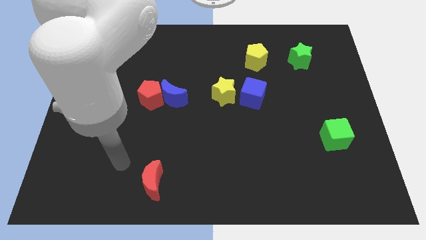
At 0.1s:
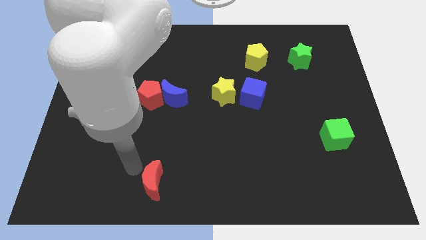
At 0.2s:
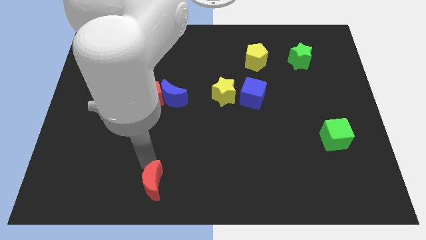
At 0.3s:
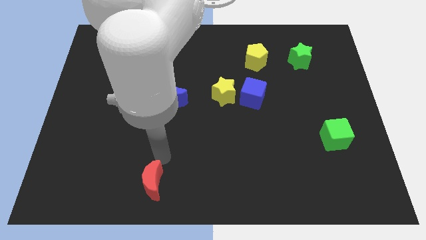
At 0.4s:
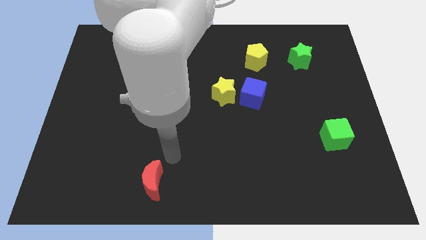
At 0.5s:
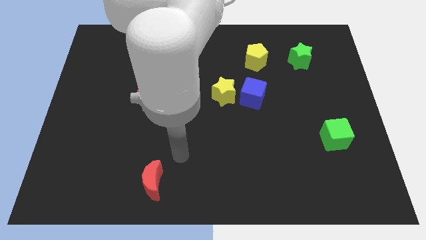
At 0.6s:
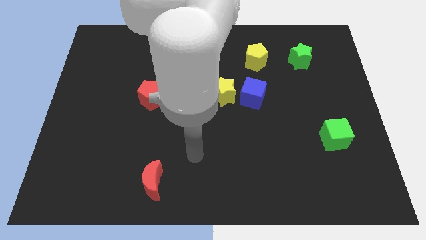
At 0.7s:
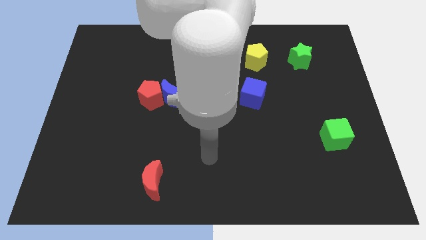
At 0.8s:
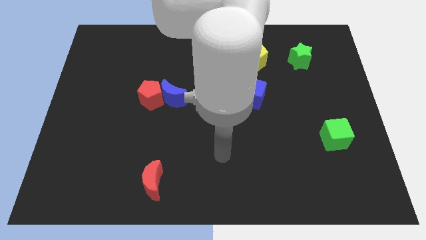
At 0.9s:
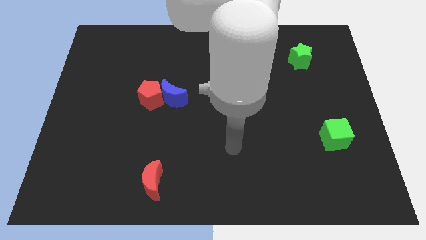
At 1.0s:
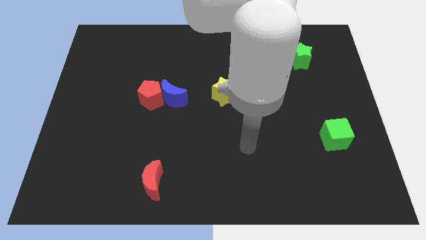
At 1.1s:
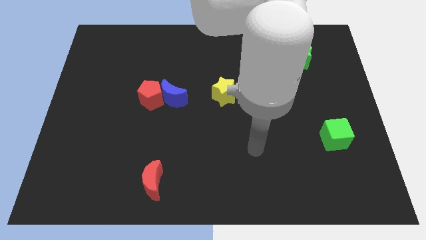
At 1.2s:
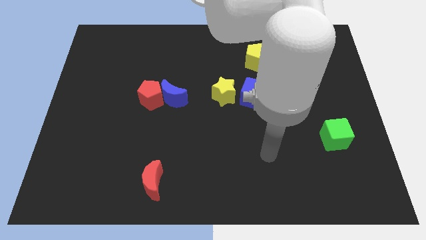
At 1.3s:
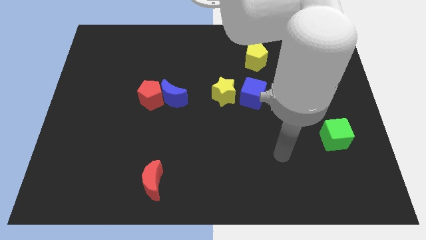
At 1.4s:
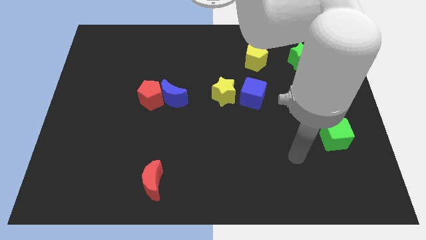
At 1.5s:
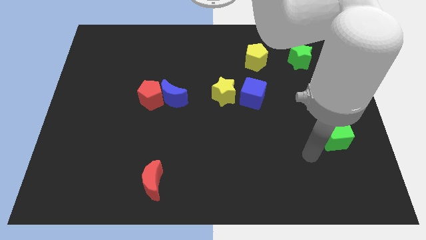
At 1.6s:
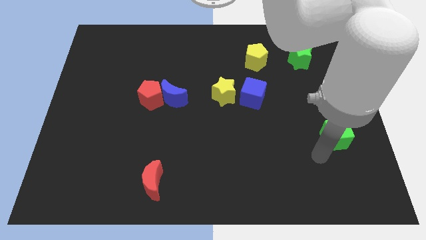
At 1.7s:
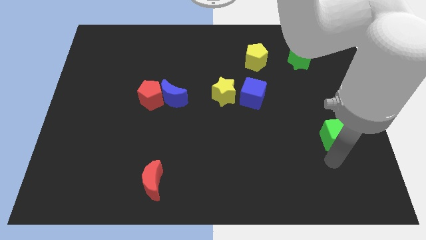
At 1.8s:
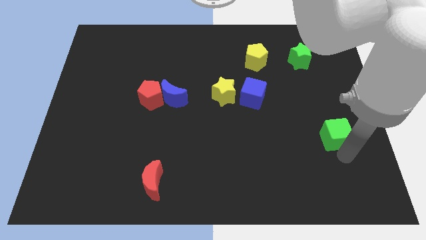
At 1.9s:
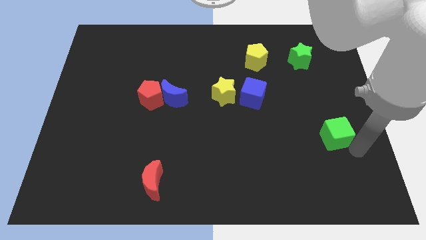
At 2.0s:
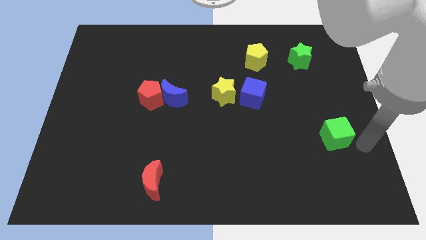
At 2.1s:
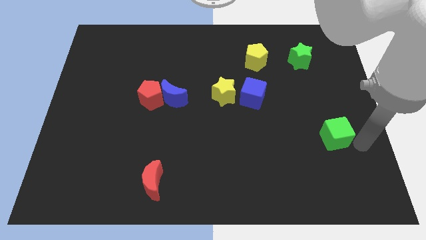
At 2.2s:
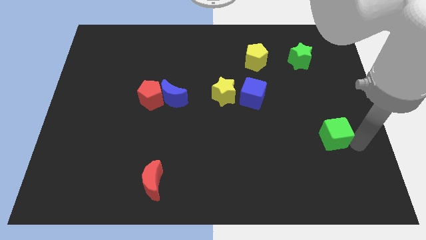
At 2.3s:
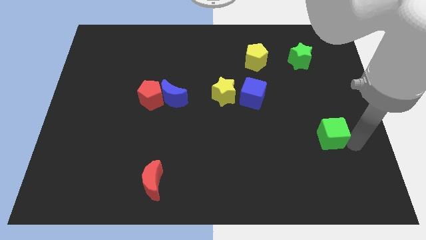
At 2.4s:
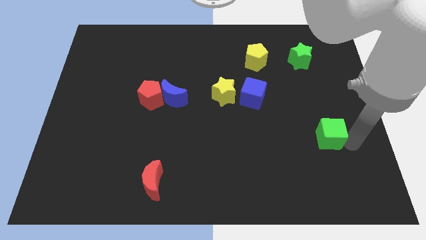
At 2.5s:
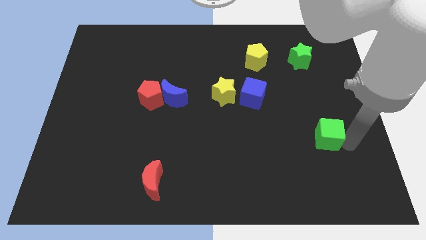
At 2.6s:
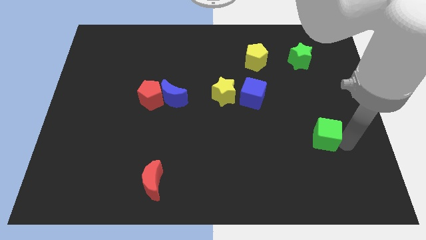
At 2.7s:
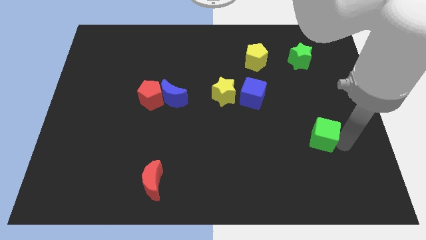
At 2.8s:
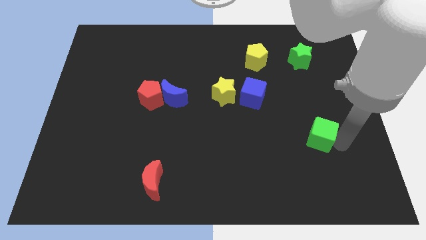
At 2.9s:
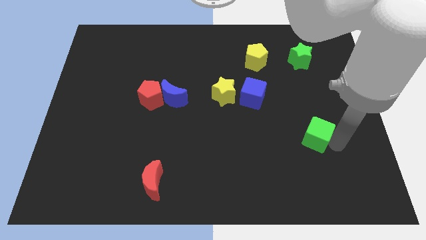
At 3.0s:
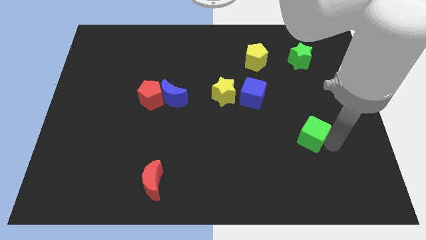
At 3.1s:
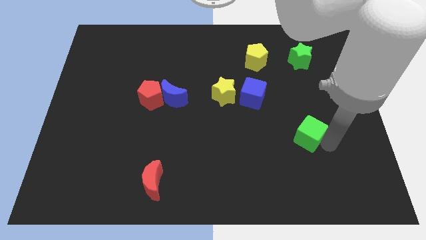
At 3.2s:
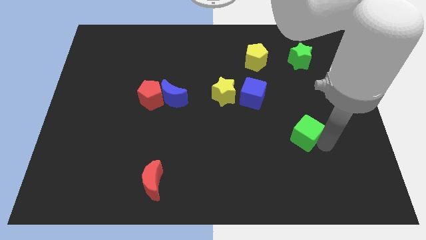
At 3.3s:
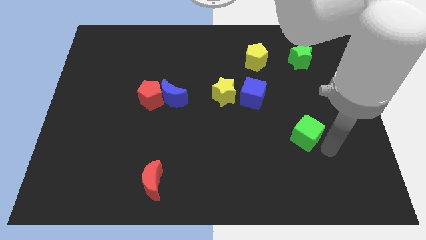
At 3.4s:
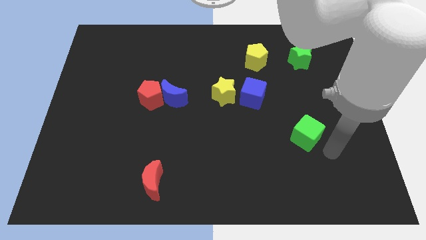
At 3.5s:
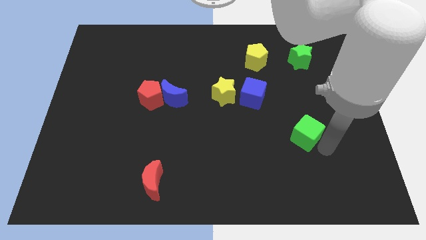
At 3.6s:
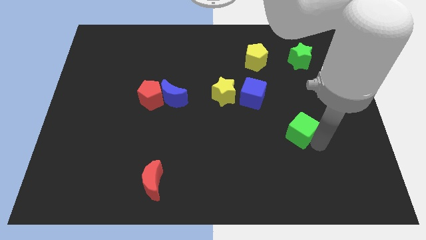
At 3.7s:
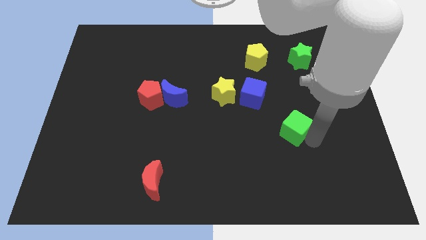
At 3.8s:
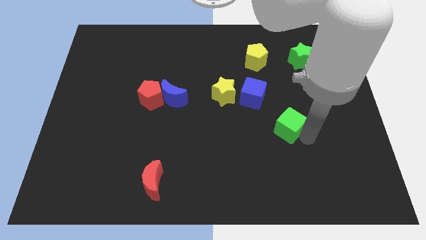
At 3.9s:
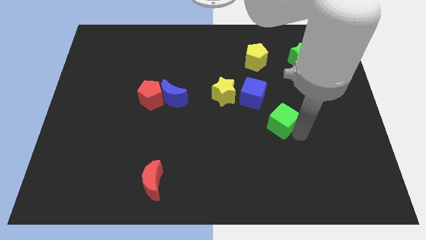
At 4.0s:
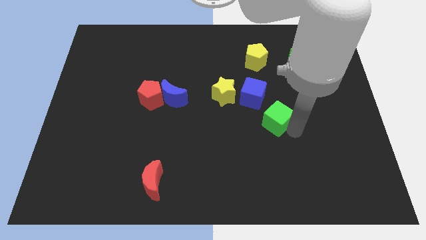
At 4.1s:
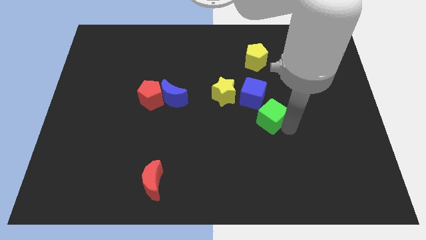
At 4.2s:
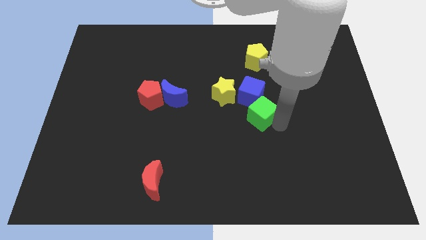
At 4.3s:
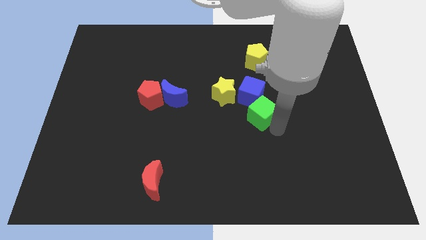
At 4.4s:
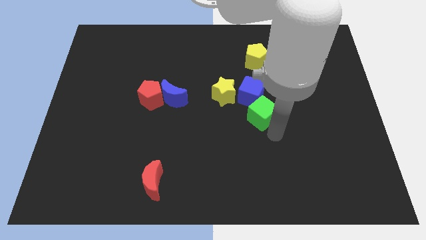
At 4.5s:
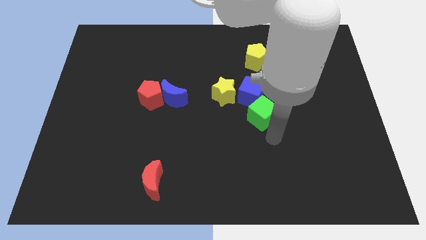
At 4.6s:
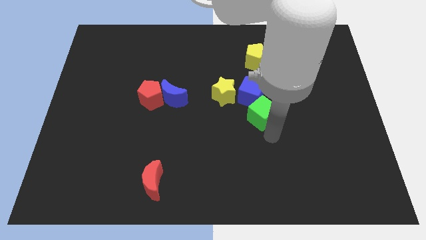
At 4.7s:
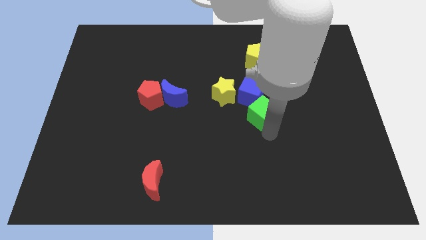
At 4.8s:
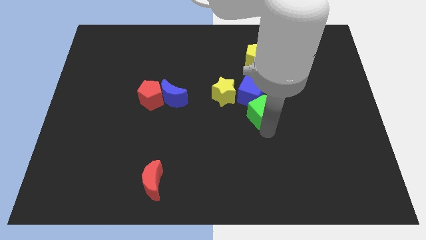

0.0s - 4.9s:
put the green cube towards the blue cube

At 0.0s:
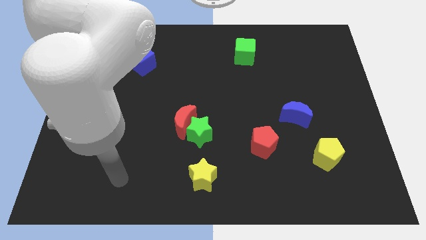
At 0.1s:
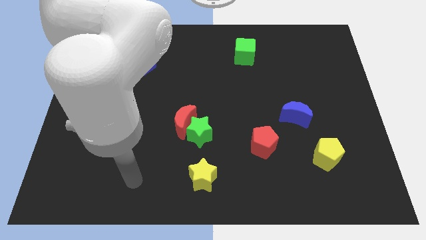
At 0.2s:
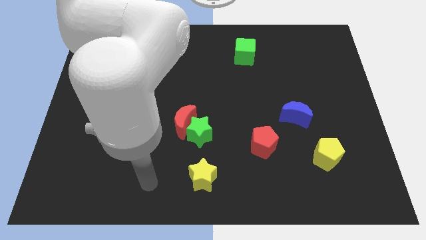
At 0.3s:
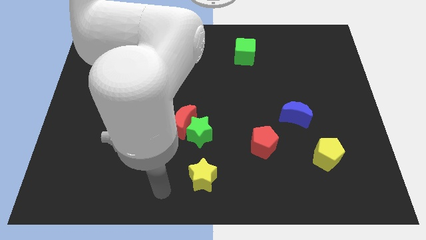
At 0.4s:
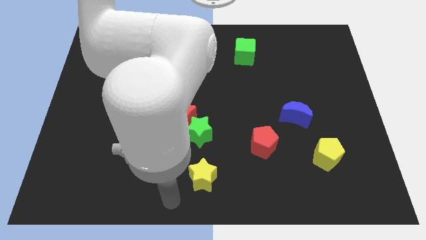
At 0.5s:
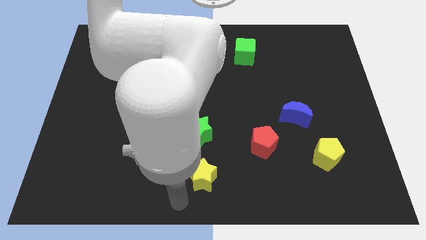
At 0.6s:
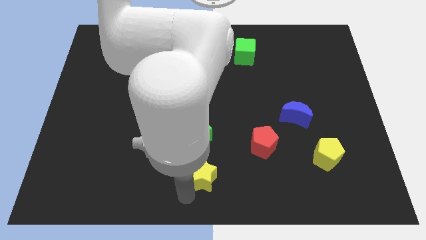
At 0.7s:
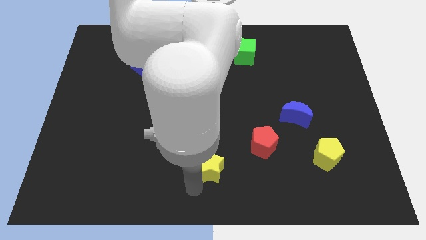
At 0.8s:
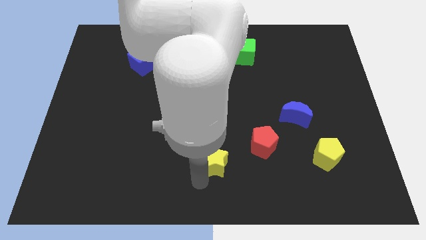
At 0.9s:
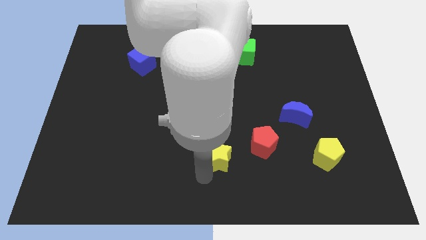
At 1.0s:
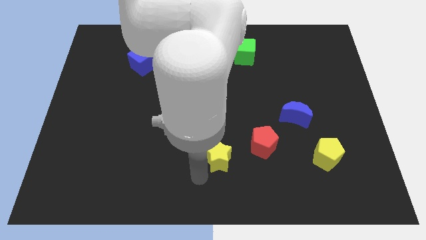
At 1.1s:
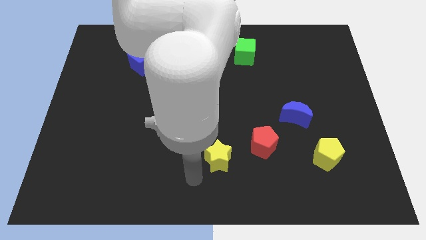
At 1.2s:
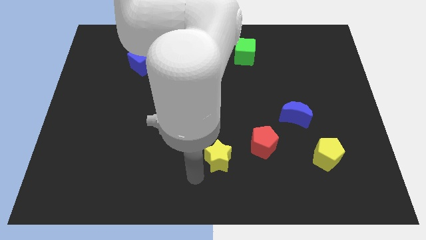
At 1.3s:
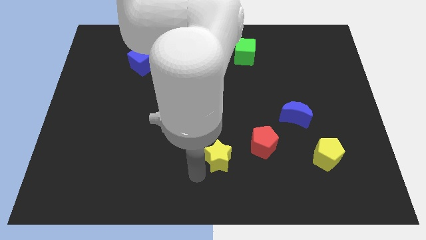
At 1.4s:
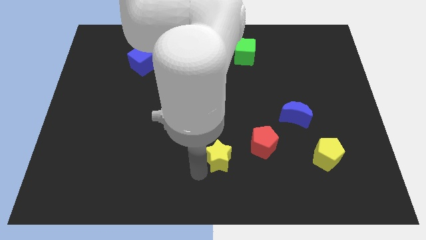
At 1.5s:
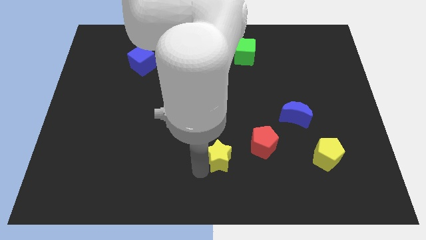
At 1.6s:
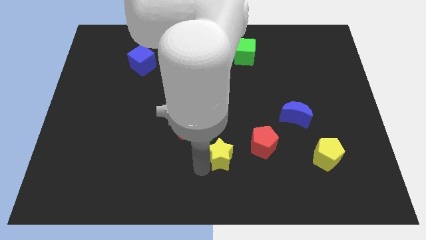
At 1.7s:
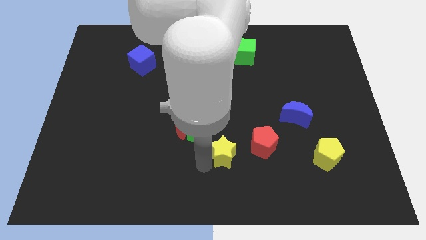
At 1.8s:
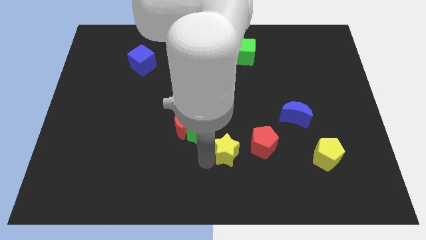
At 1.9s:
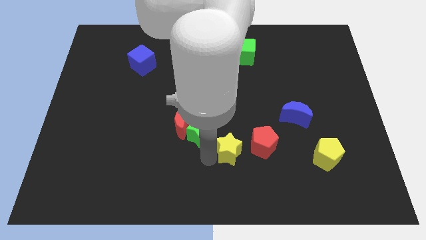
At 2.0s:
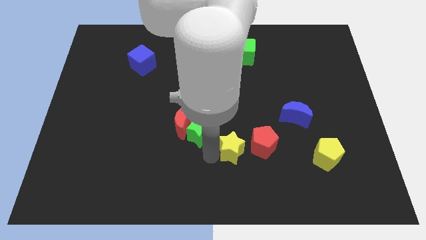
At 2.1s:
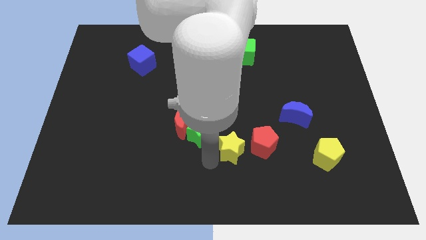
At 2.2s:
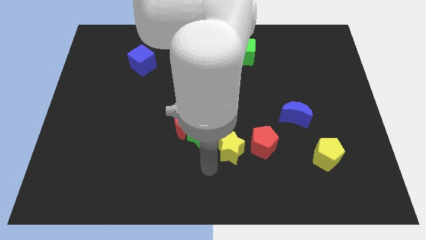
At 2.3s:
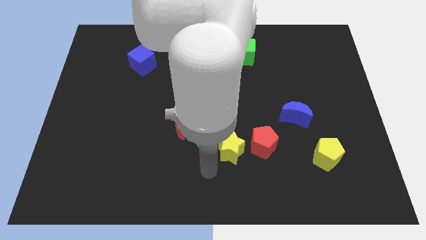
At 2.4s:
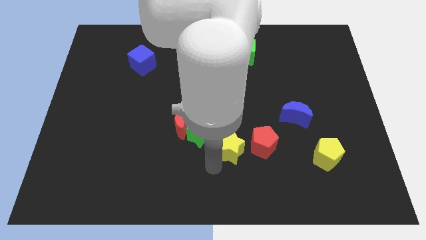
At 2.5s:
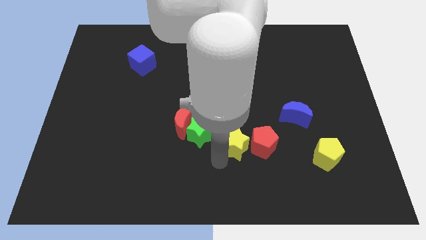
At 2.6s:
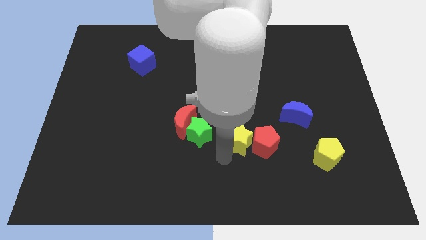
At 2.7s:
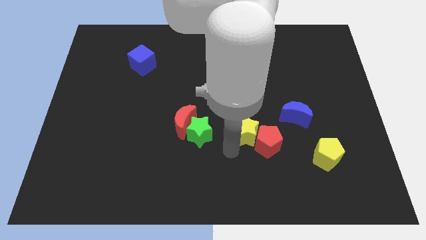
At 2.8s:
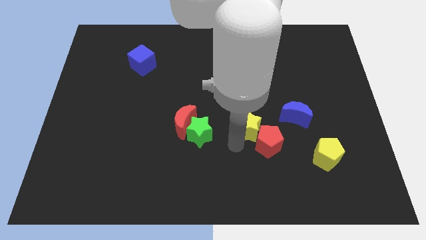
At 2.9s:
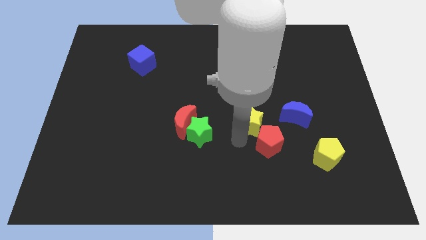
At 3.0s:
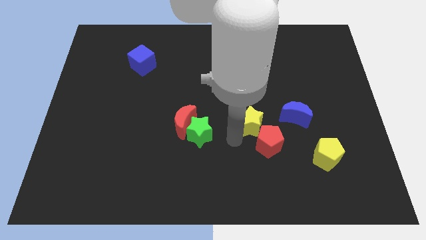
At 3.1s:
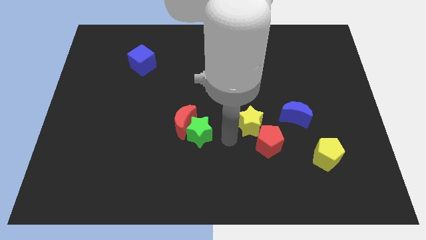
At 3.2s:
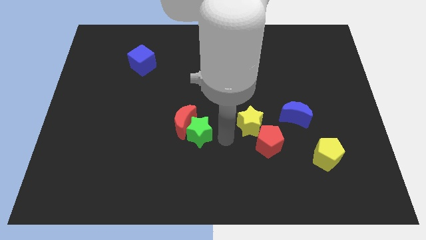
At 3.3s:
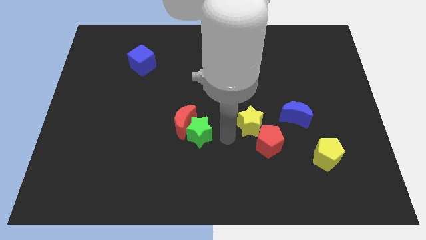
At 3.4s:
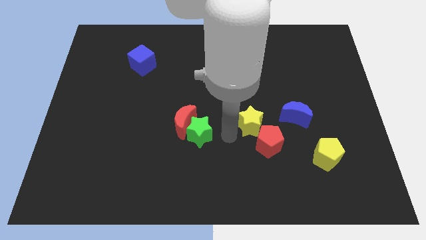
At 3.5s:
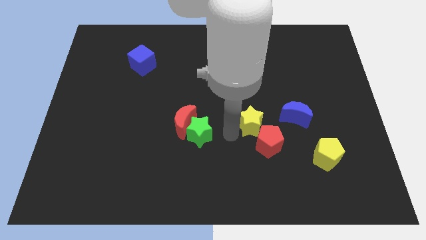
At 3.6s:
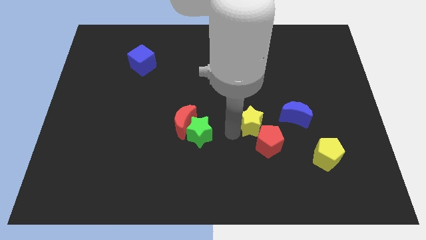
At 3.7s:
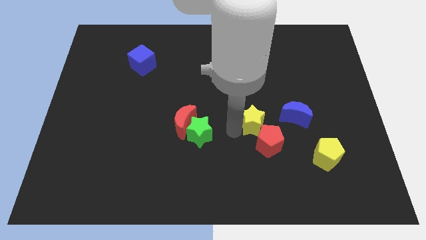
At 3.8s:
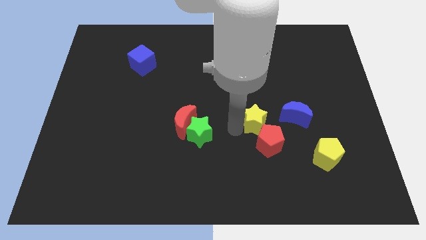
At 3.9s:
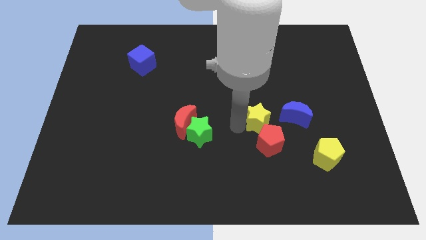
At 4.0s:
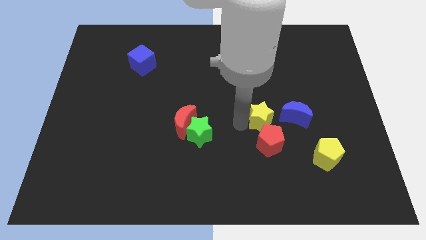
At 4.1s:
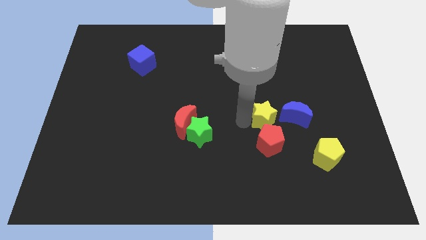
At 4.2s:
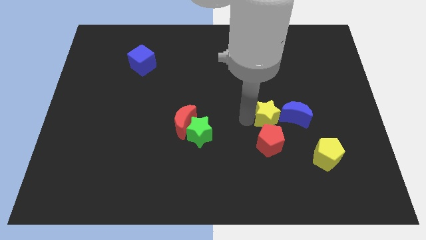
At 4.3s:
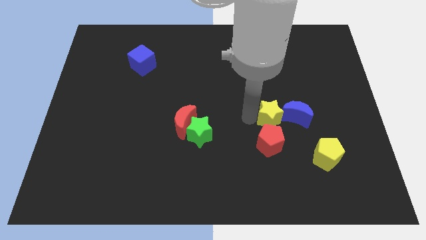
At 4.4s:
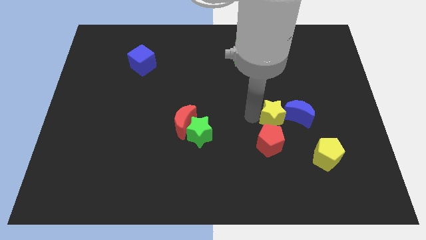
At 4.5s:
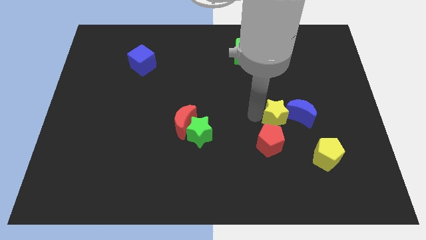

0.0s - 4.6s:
slide the yellow star close to the blue moon
